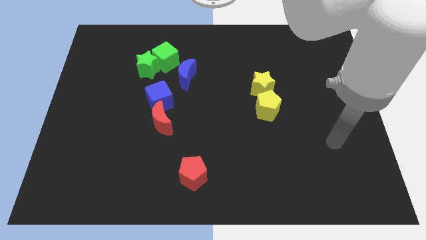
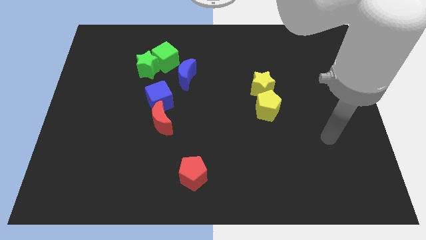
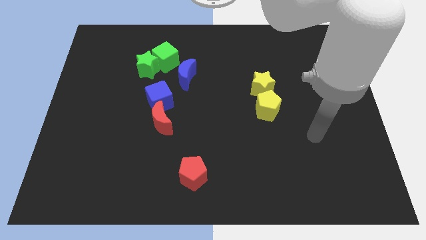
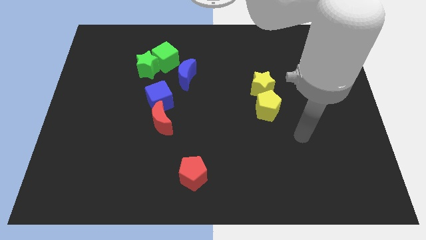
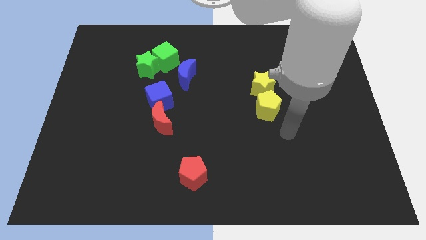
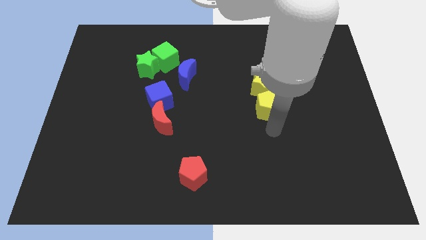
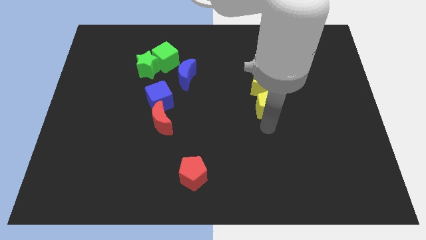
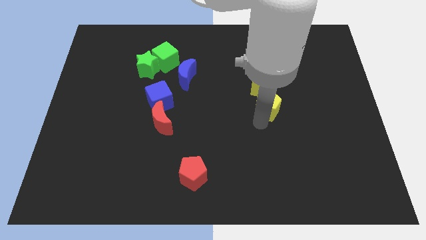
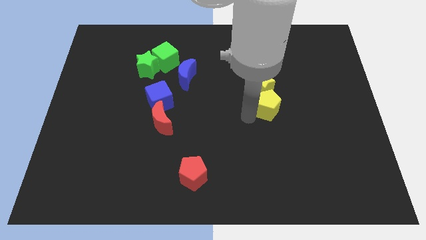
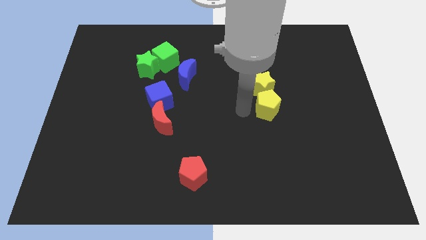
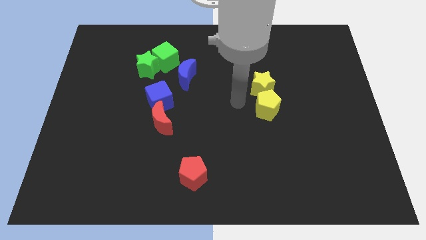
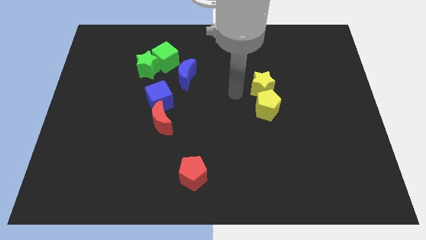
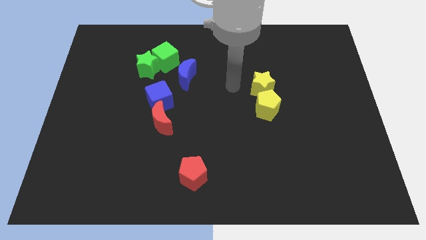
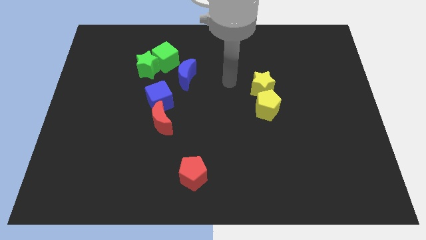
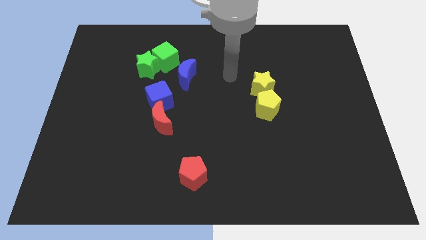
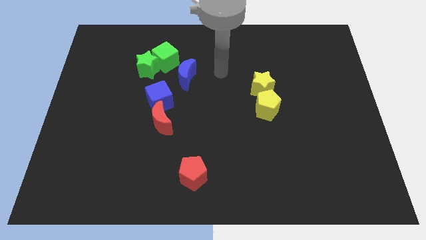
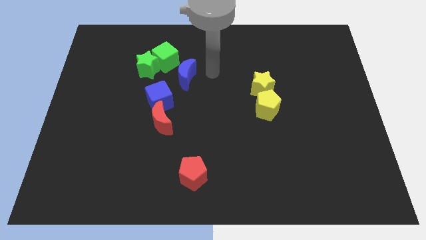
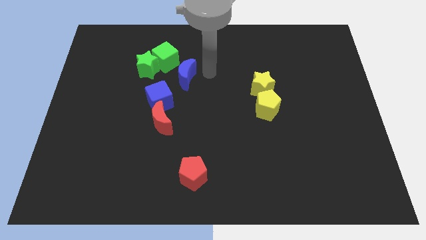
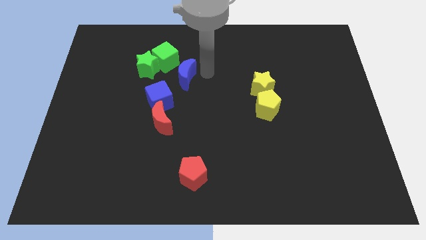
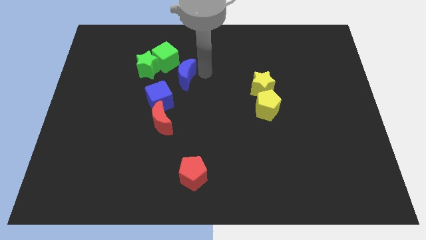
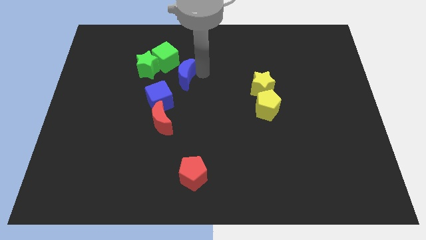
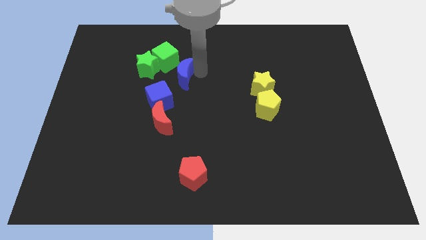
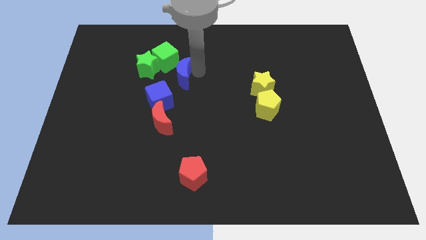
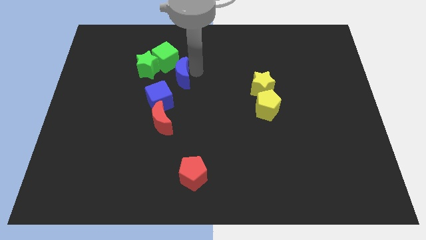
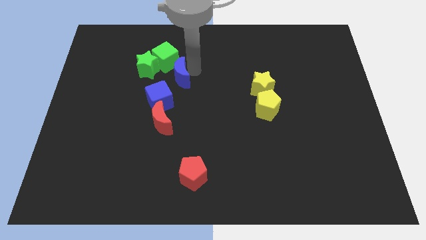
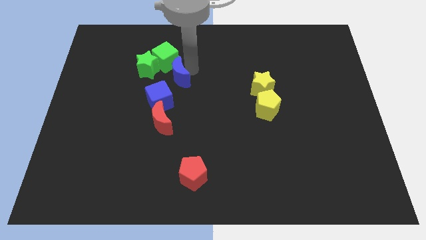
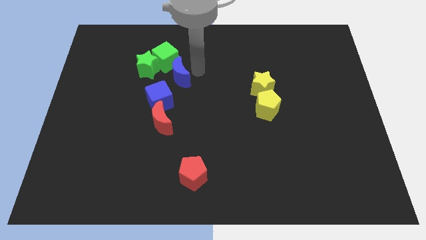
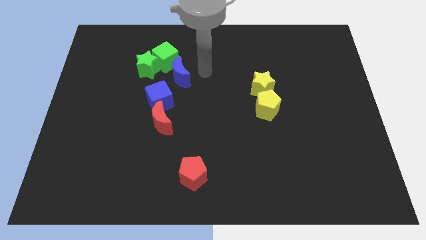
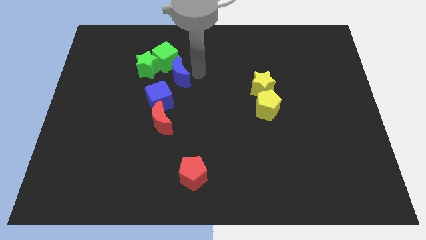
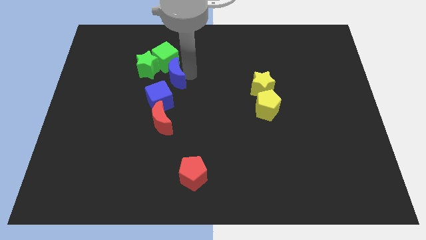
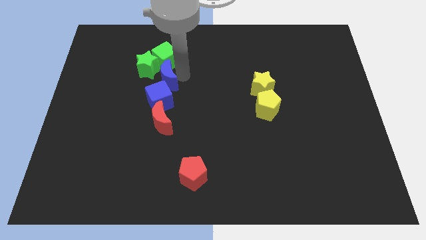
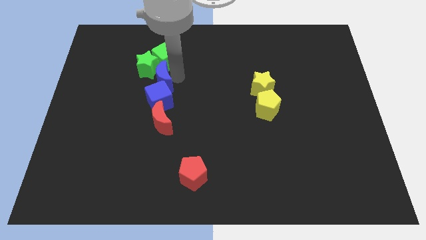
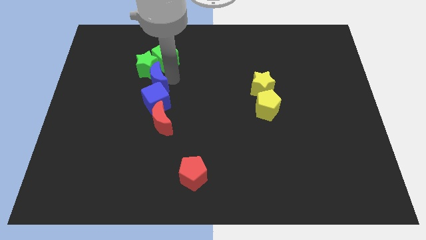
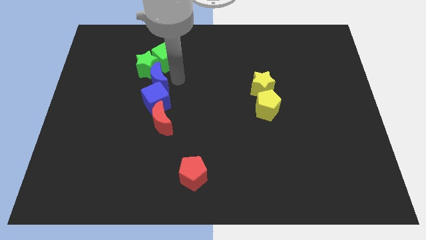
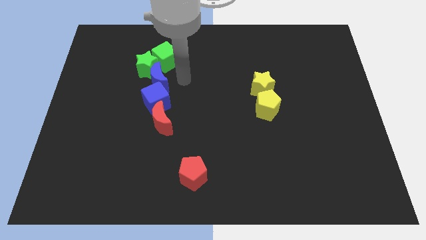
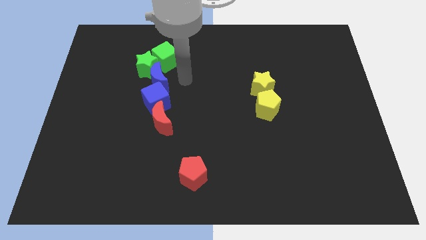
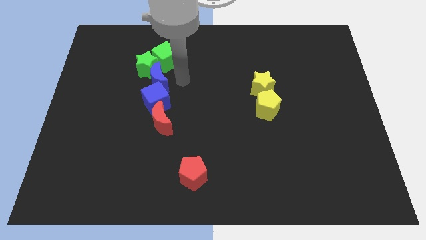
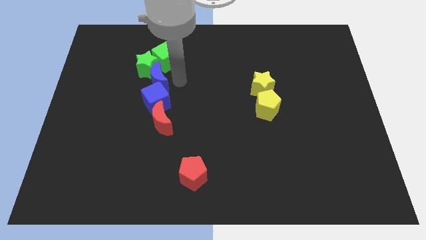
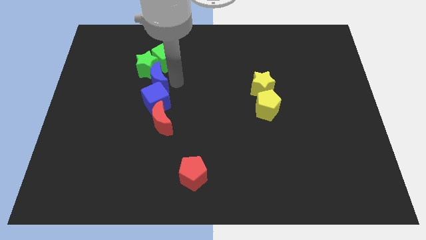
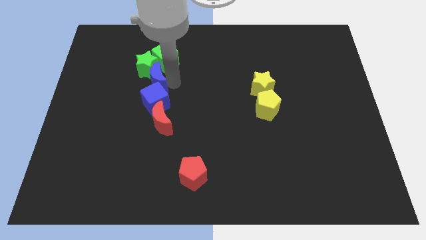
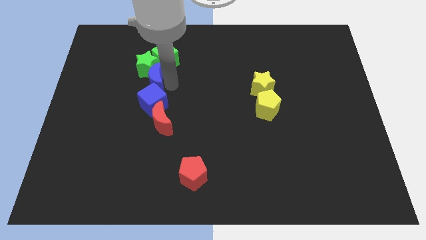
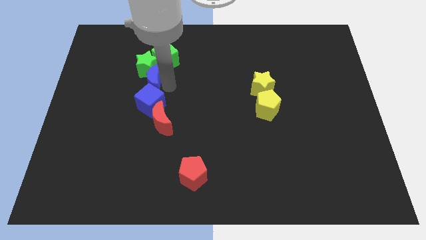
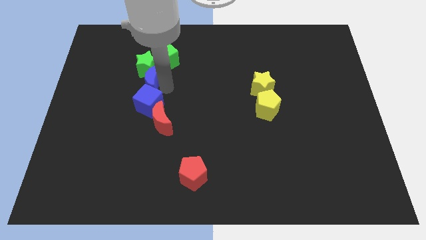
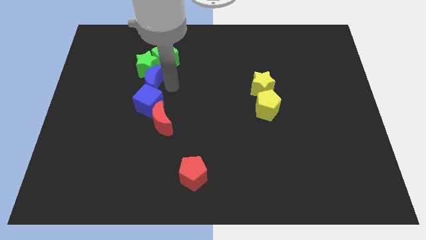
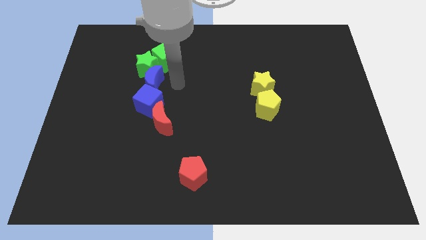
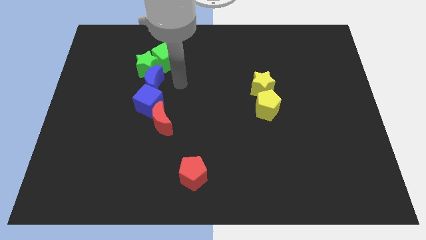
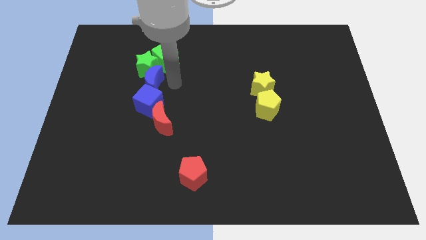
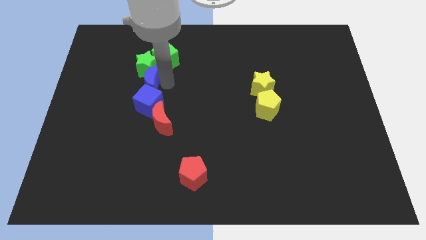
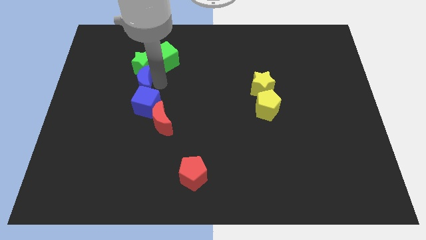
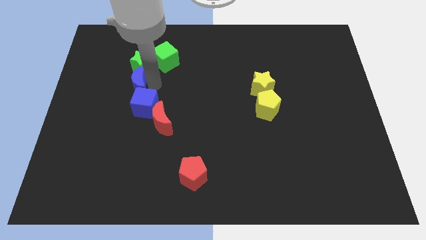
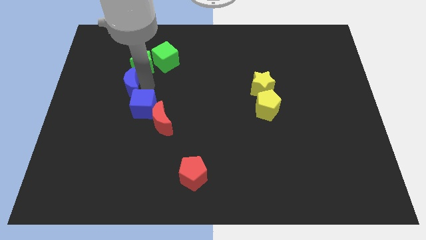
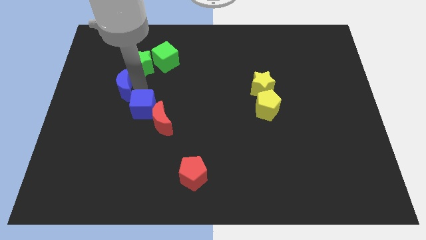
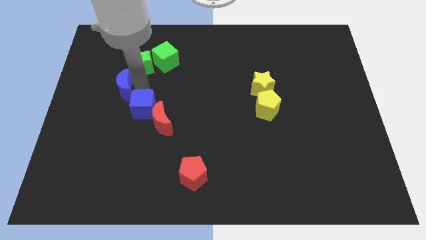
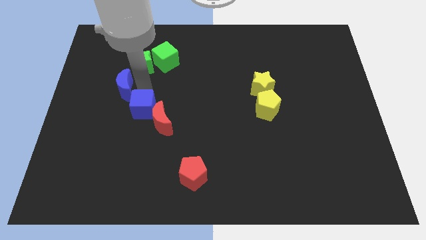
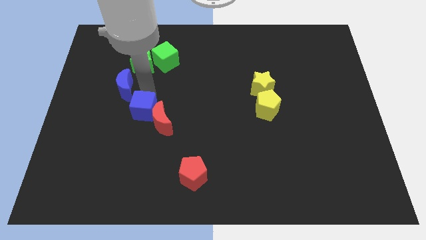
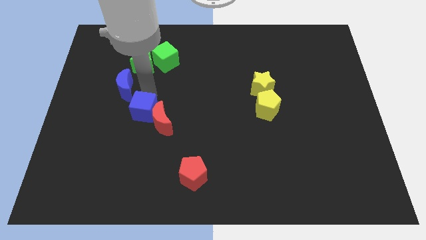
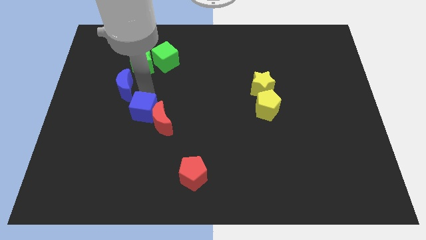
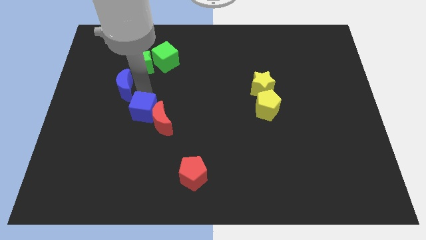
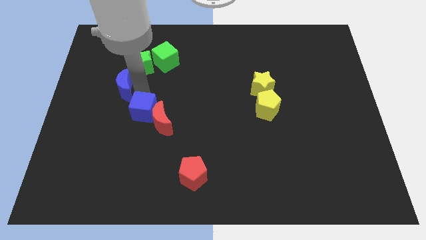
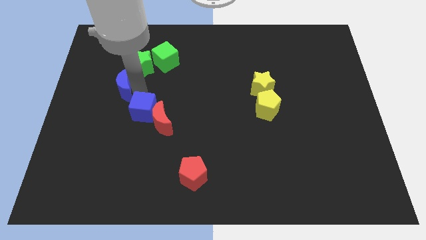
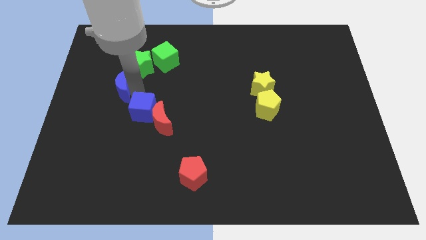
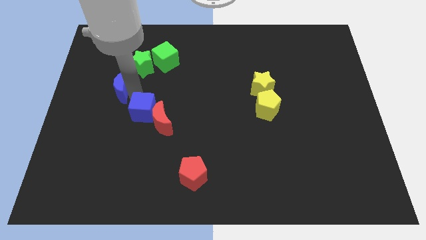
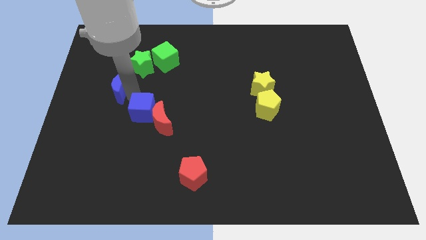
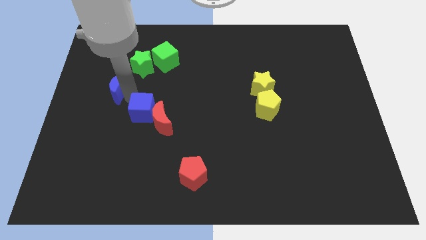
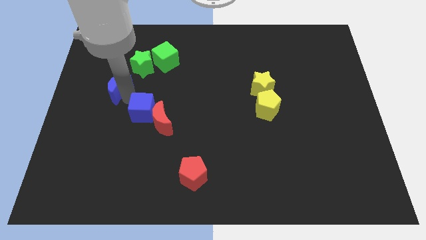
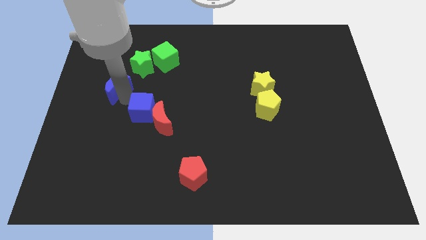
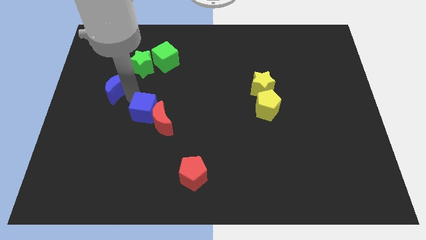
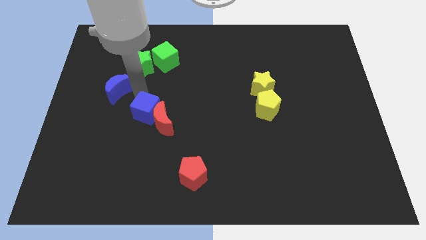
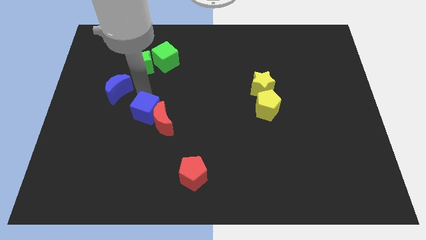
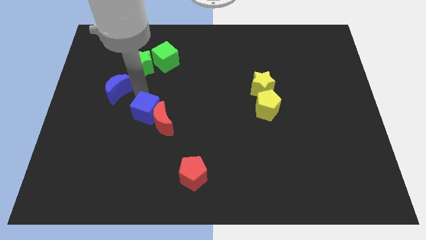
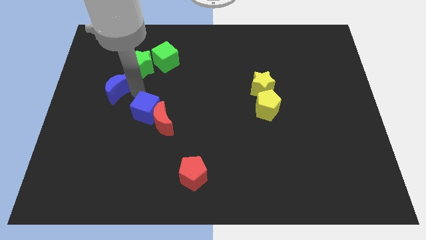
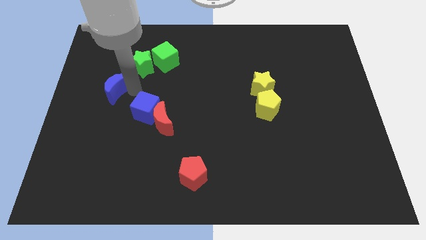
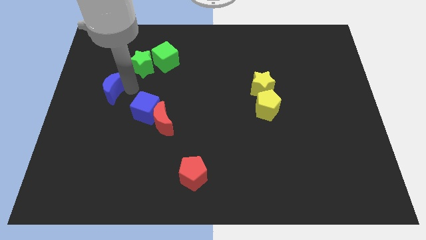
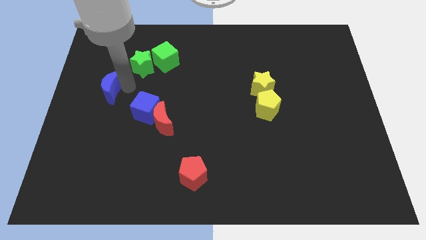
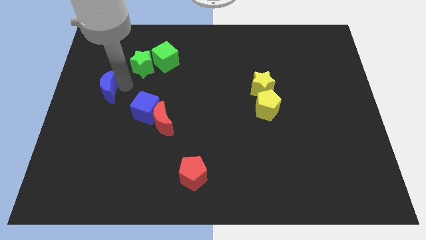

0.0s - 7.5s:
move the blue moon to the left side
